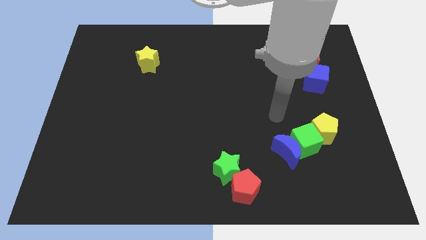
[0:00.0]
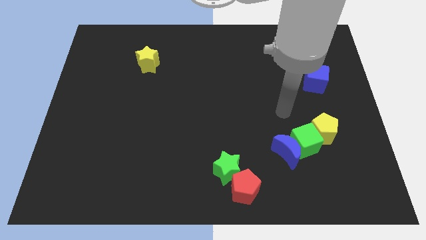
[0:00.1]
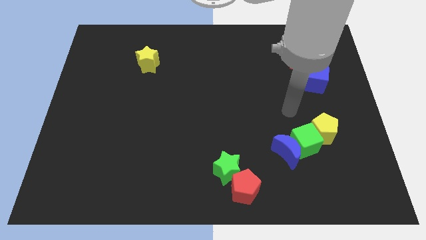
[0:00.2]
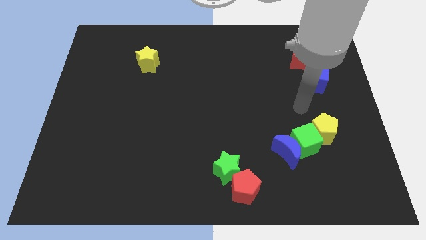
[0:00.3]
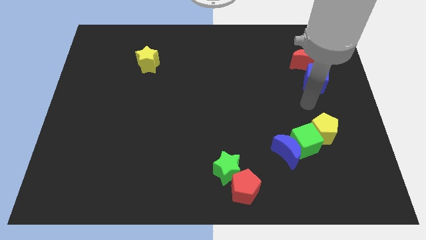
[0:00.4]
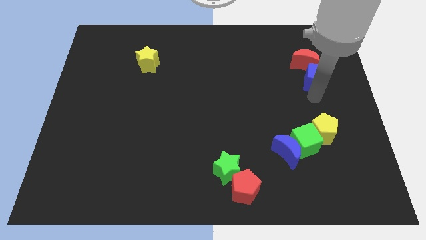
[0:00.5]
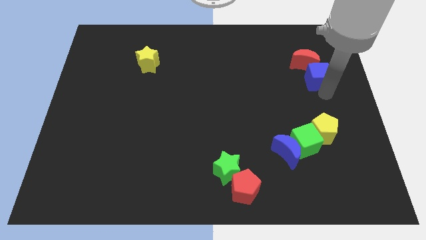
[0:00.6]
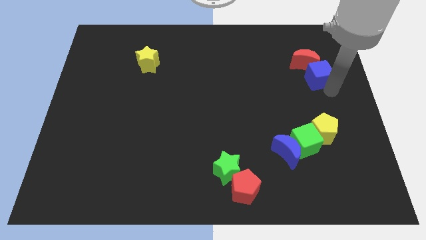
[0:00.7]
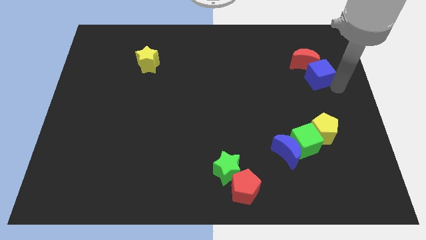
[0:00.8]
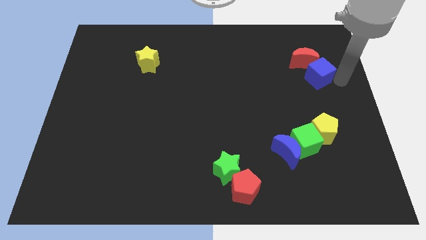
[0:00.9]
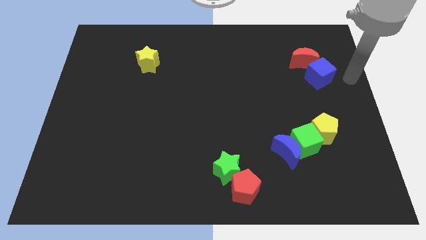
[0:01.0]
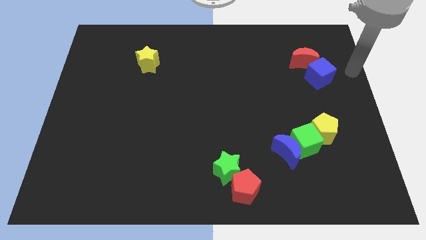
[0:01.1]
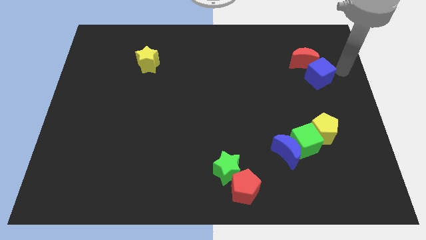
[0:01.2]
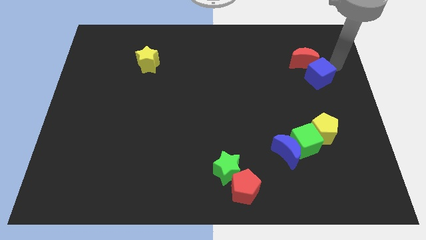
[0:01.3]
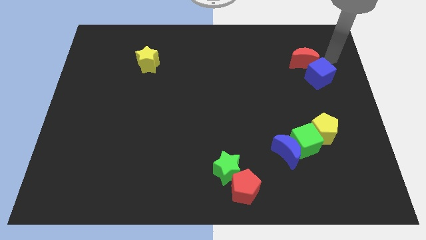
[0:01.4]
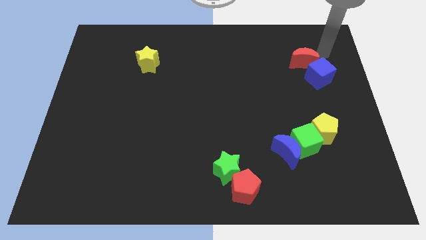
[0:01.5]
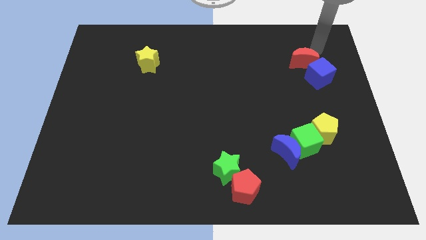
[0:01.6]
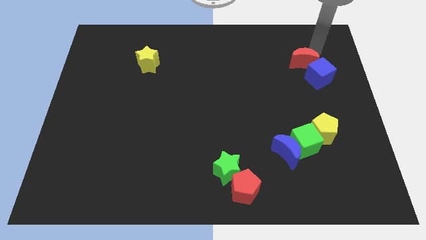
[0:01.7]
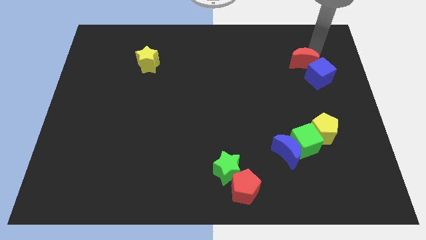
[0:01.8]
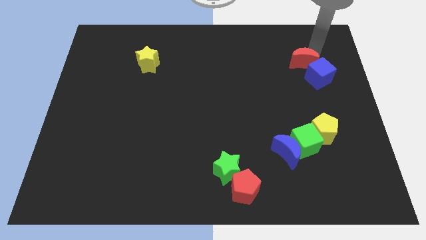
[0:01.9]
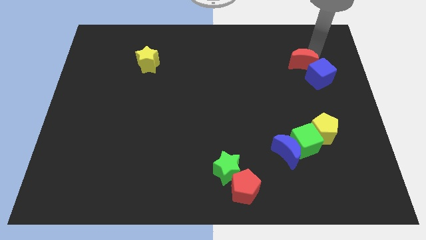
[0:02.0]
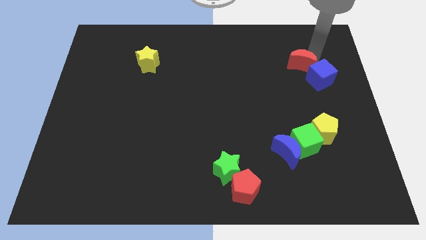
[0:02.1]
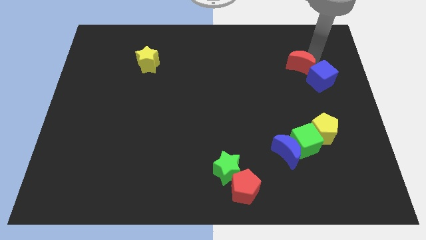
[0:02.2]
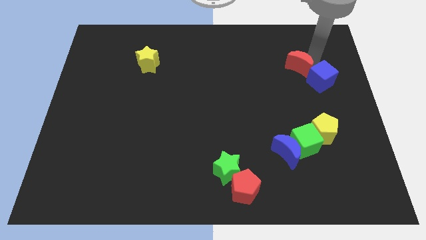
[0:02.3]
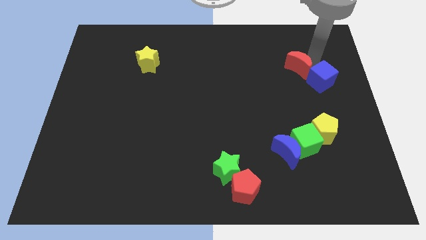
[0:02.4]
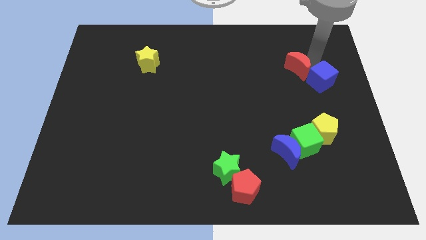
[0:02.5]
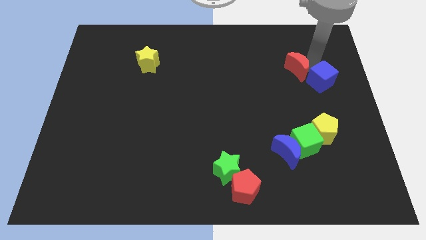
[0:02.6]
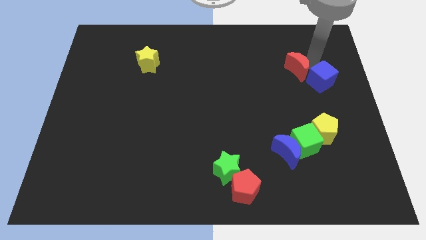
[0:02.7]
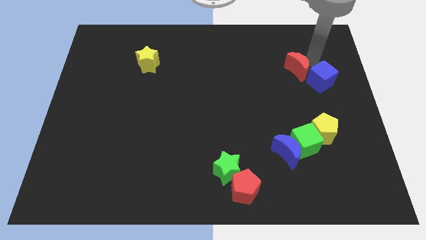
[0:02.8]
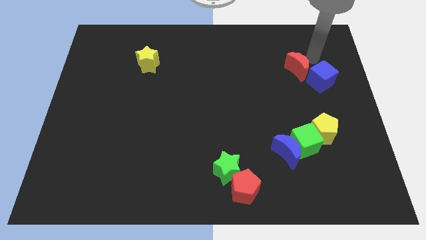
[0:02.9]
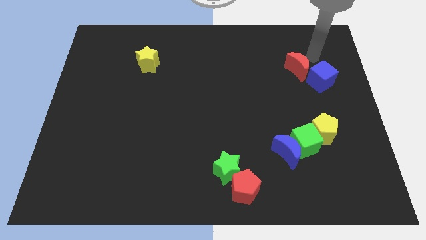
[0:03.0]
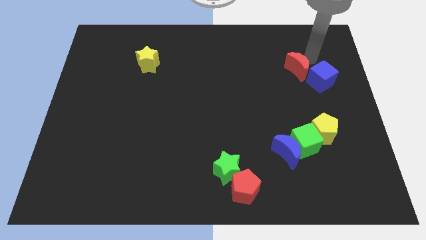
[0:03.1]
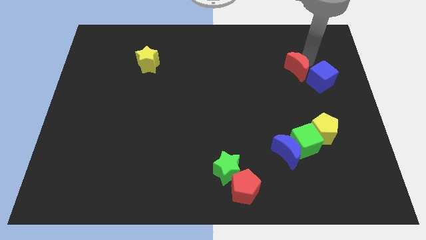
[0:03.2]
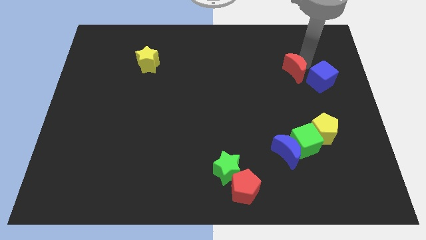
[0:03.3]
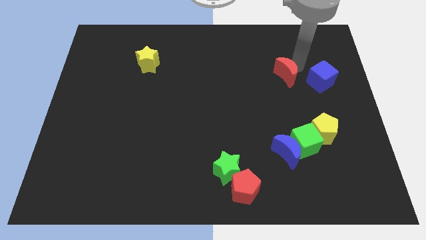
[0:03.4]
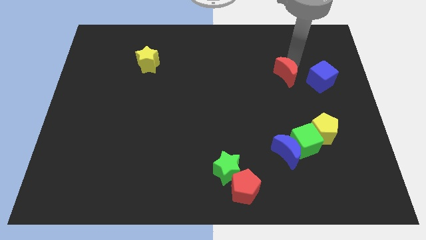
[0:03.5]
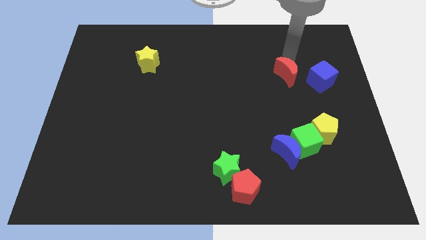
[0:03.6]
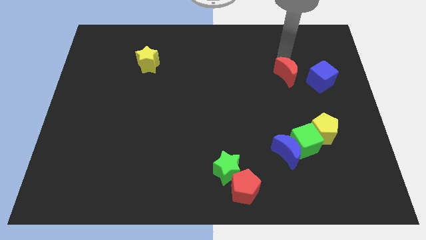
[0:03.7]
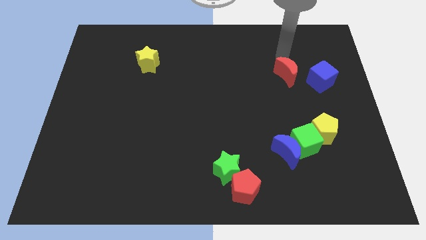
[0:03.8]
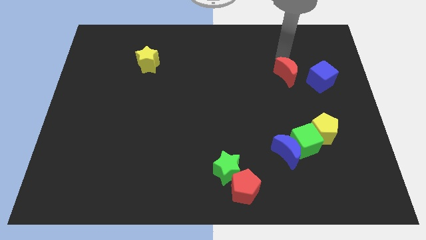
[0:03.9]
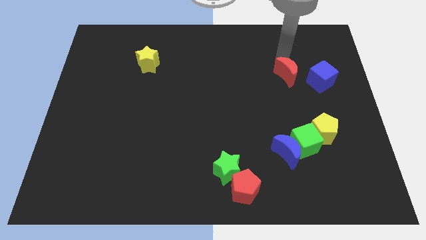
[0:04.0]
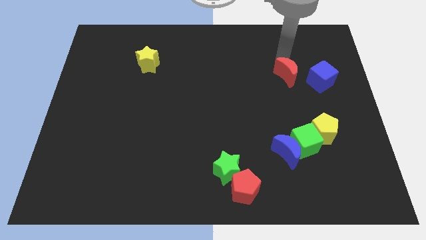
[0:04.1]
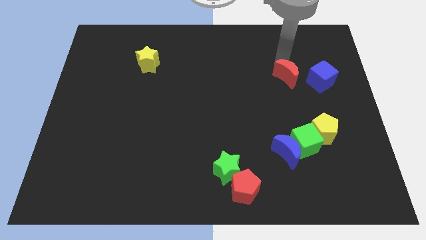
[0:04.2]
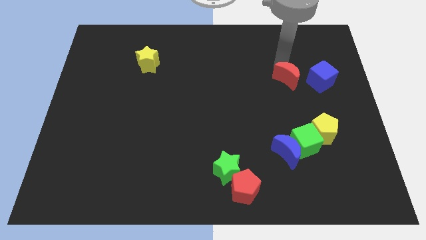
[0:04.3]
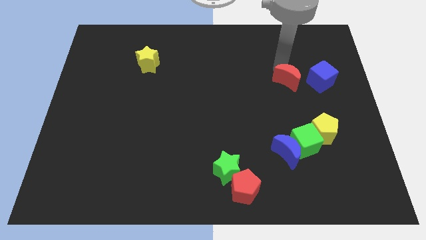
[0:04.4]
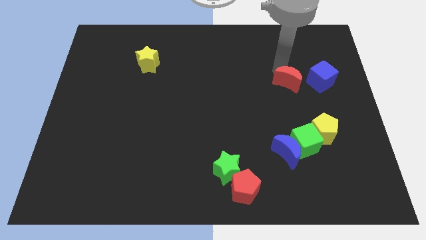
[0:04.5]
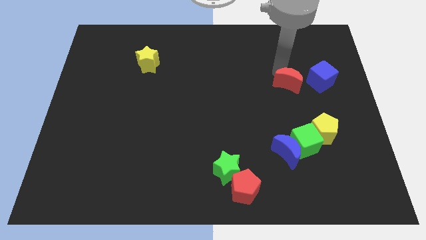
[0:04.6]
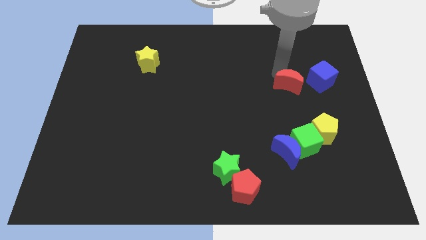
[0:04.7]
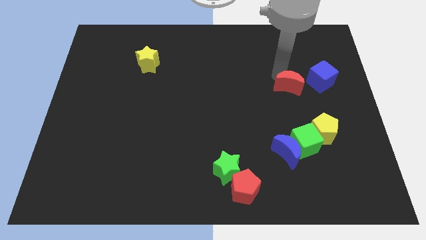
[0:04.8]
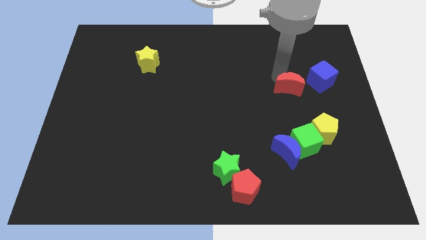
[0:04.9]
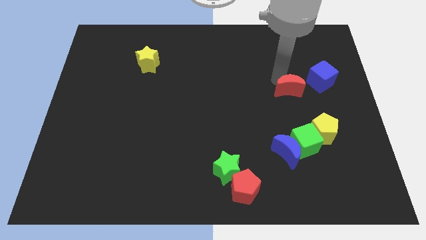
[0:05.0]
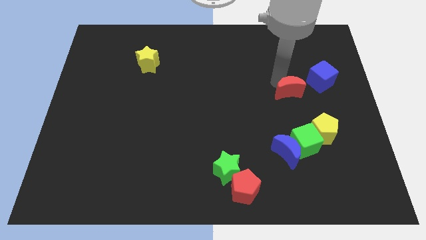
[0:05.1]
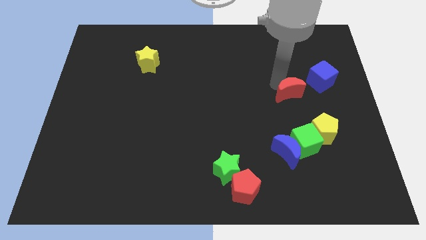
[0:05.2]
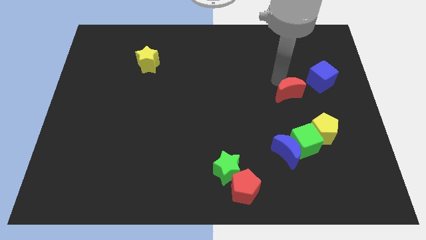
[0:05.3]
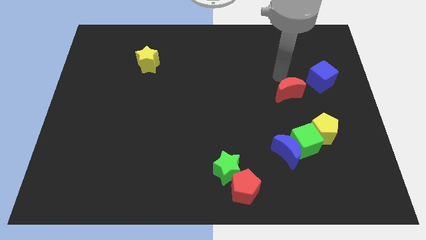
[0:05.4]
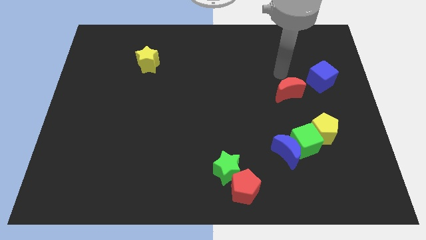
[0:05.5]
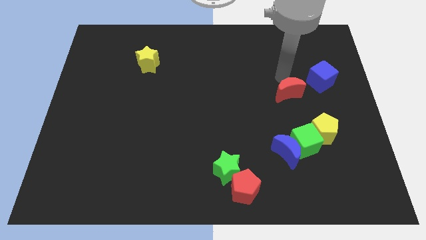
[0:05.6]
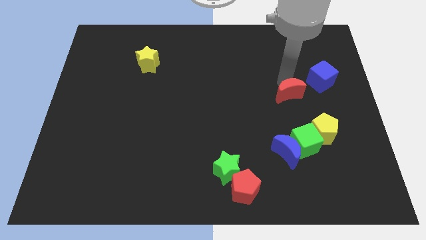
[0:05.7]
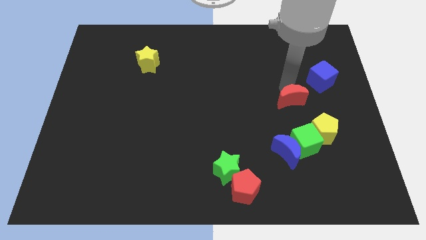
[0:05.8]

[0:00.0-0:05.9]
slide the red moon to the top left of the yellow pentagon

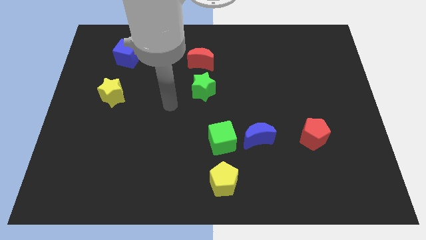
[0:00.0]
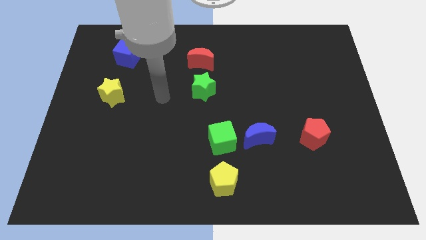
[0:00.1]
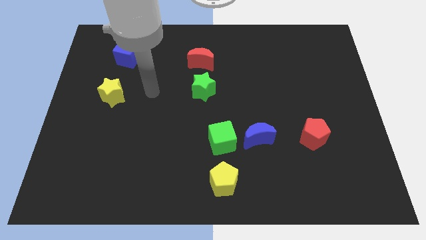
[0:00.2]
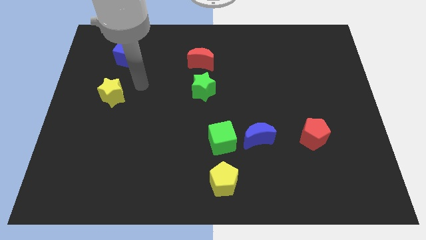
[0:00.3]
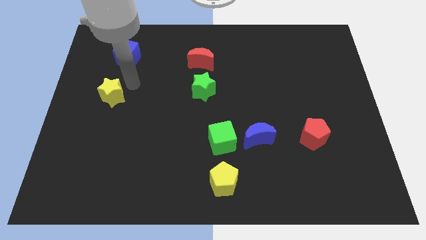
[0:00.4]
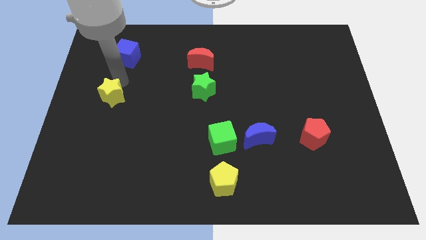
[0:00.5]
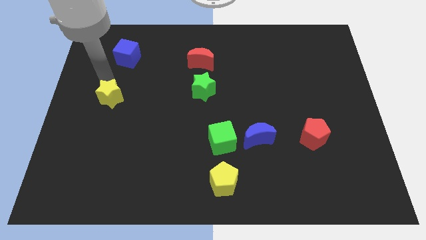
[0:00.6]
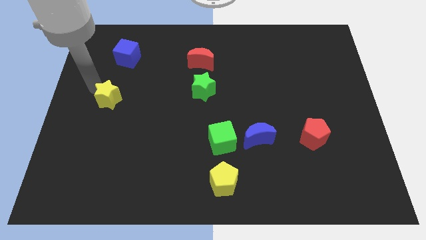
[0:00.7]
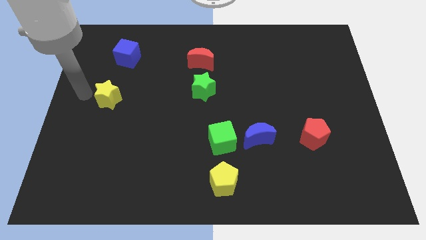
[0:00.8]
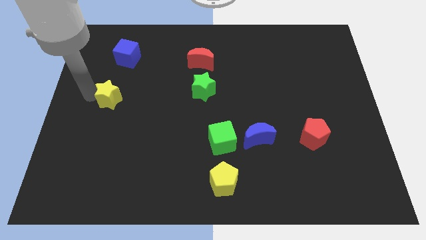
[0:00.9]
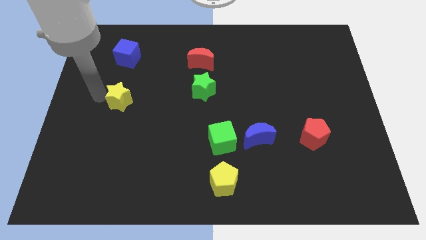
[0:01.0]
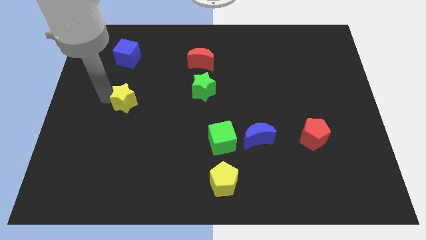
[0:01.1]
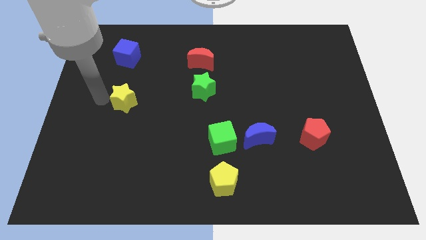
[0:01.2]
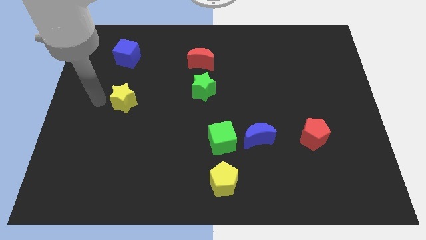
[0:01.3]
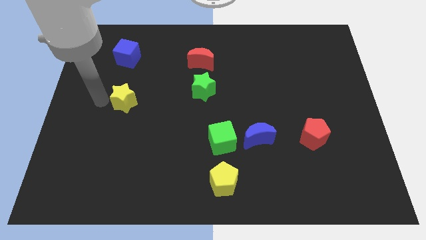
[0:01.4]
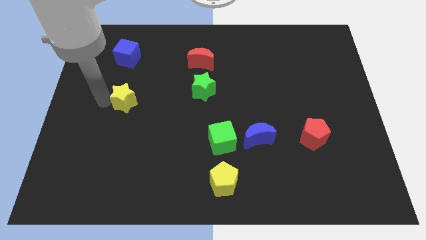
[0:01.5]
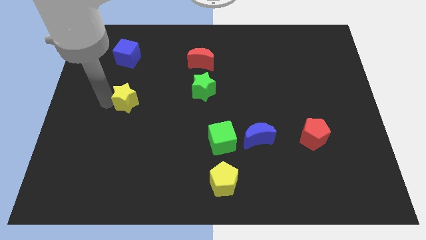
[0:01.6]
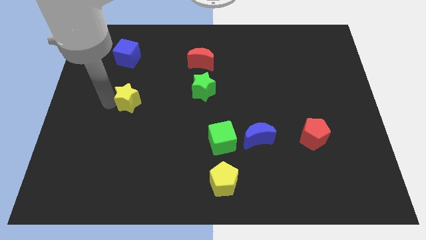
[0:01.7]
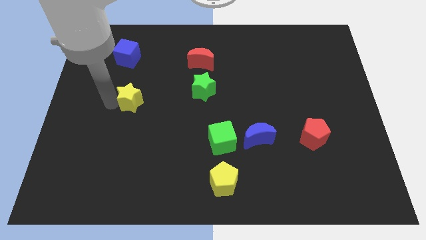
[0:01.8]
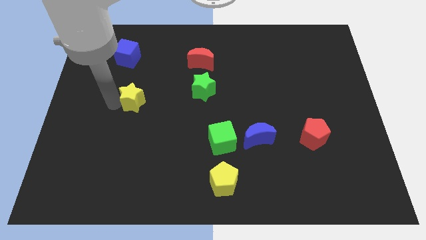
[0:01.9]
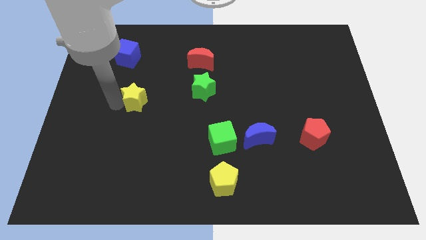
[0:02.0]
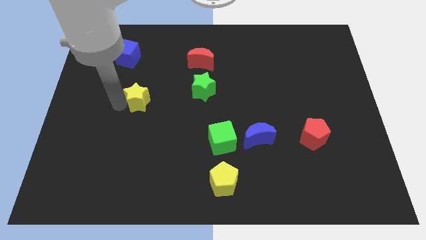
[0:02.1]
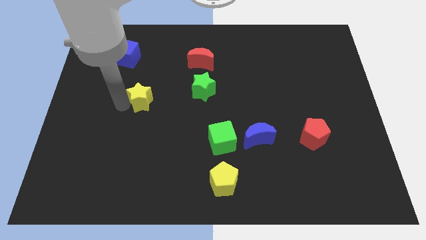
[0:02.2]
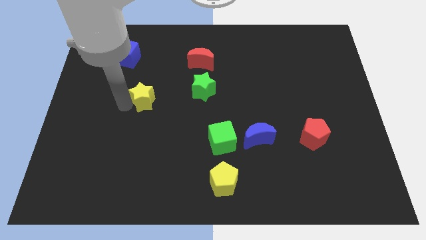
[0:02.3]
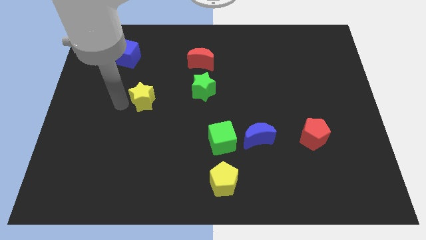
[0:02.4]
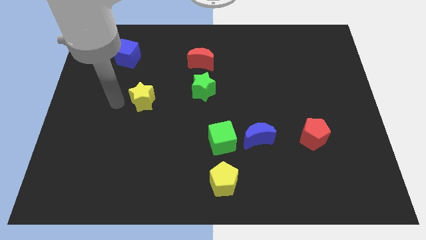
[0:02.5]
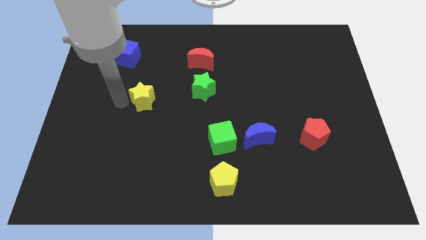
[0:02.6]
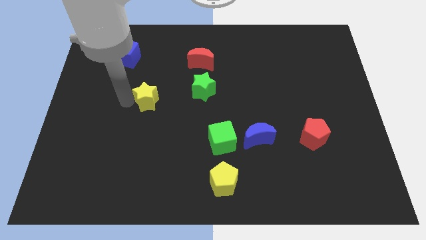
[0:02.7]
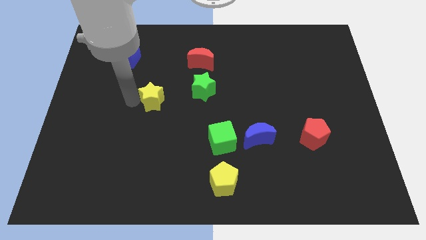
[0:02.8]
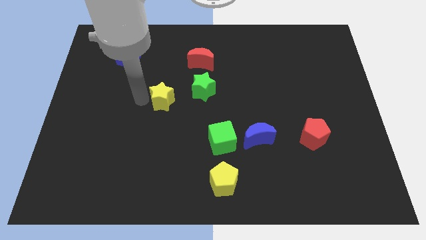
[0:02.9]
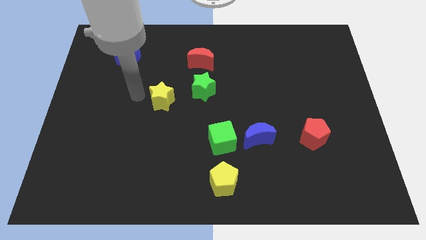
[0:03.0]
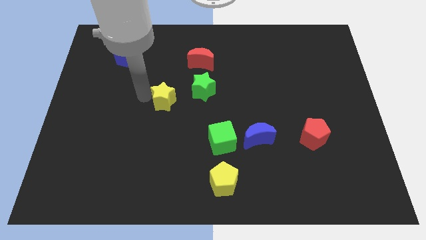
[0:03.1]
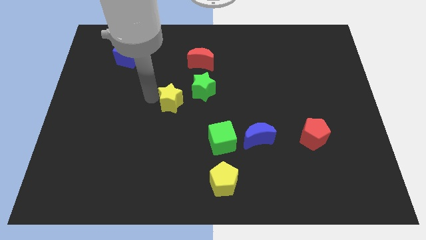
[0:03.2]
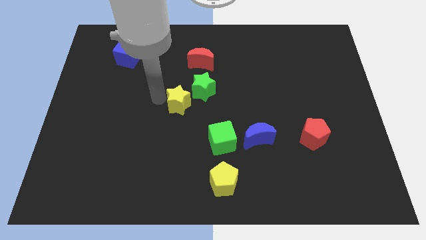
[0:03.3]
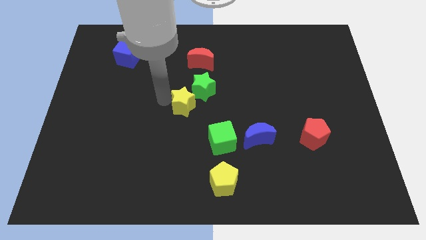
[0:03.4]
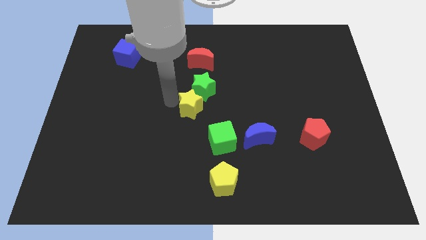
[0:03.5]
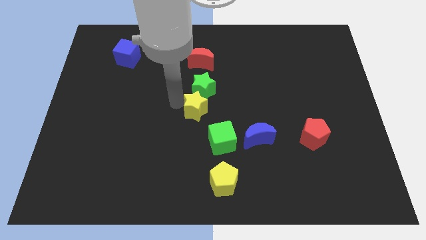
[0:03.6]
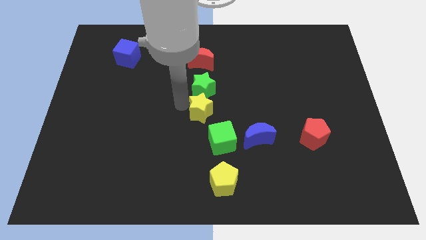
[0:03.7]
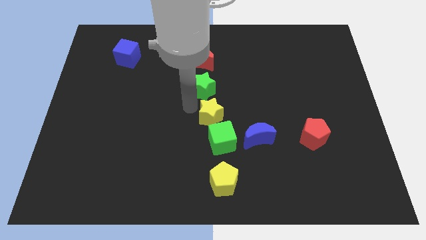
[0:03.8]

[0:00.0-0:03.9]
move the yellow star diagonally up and to the left of the blue moon
